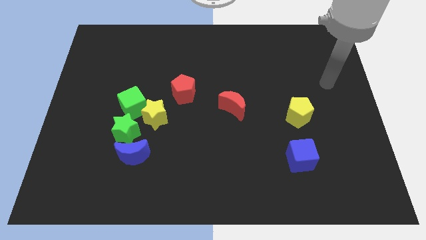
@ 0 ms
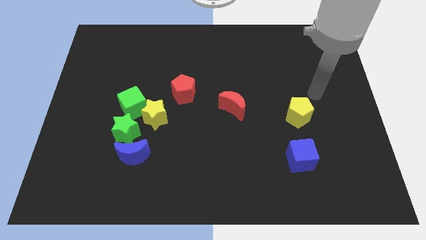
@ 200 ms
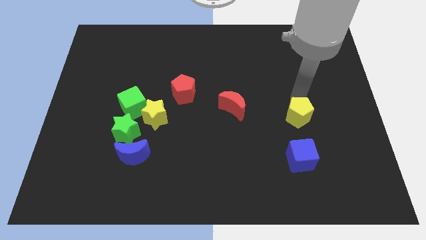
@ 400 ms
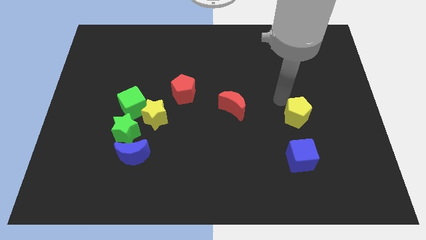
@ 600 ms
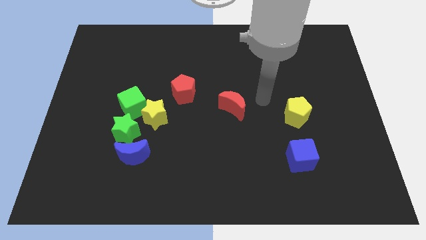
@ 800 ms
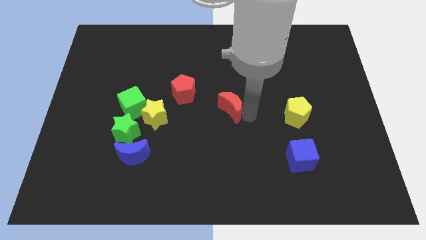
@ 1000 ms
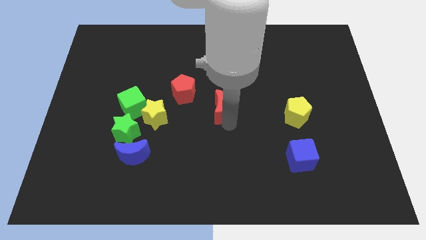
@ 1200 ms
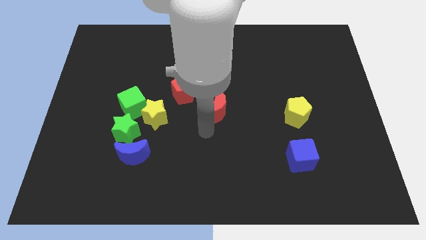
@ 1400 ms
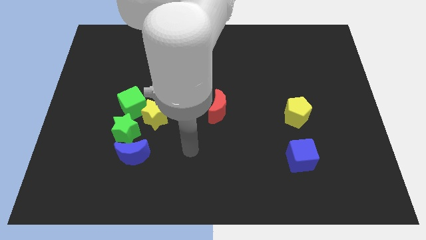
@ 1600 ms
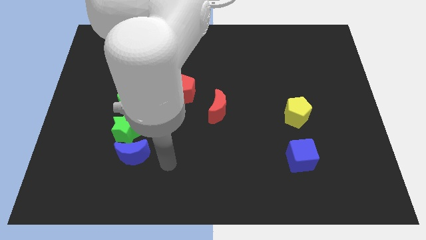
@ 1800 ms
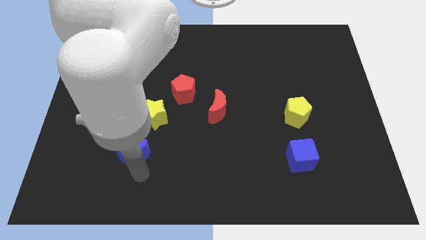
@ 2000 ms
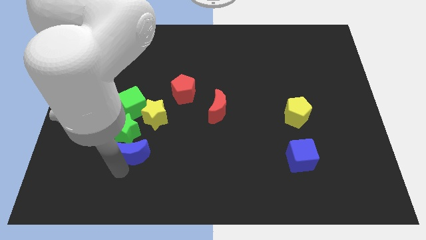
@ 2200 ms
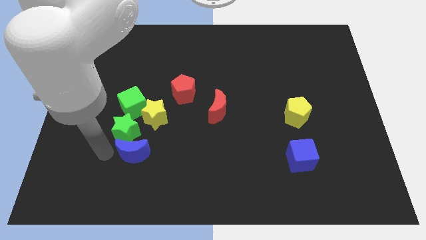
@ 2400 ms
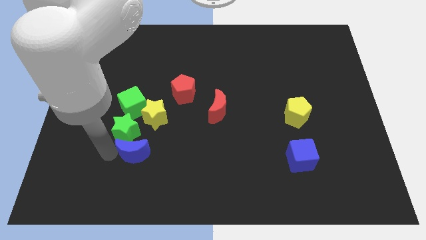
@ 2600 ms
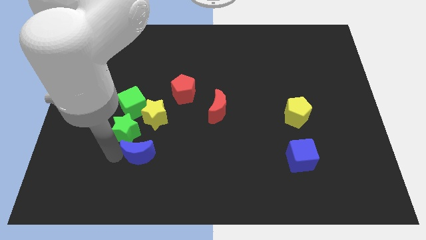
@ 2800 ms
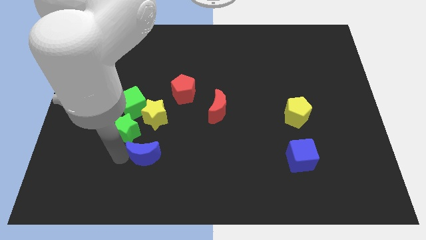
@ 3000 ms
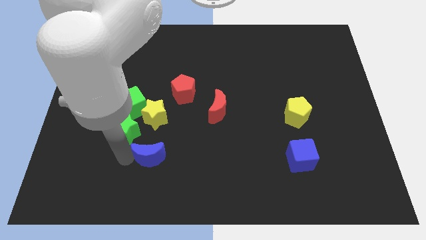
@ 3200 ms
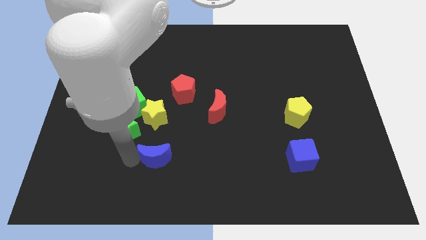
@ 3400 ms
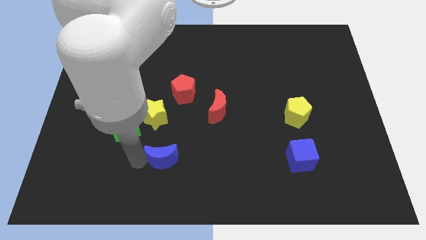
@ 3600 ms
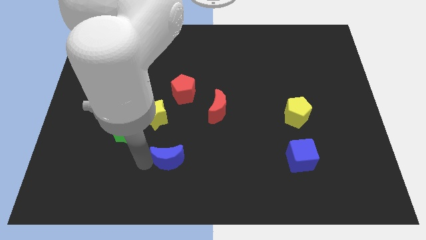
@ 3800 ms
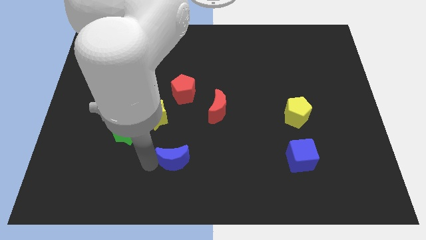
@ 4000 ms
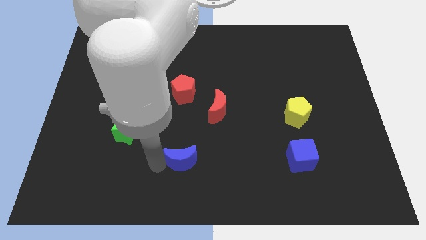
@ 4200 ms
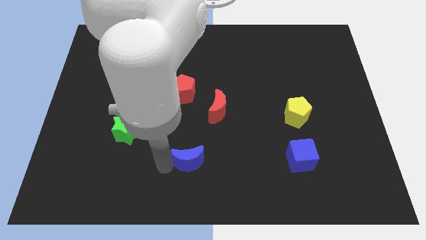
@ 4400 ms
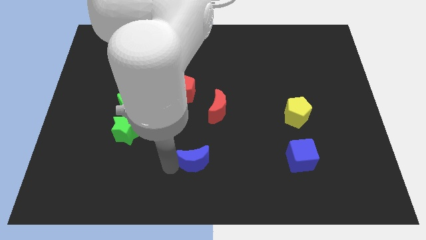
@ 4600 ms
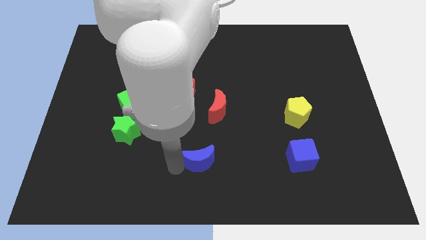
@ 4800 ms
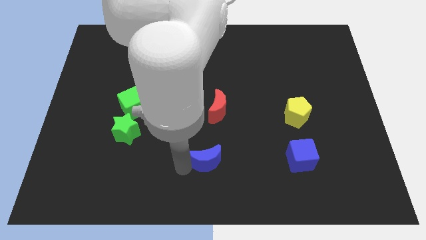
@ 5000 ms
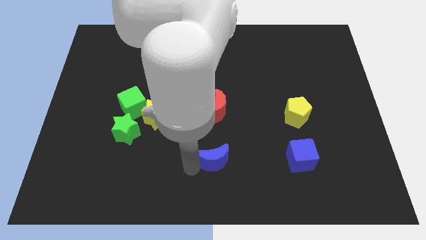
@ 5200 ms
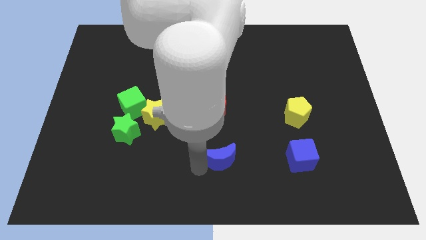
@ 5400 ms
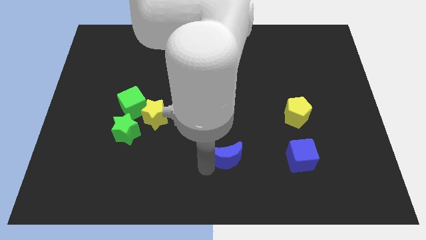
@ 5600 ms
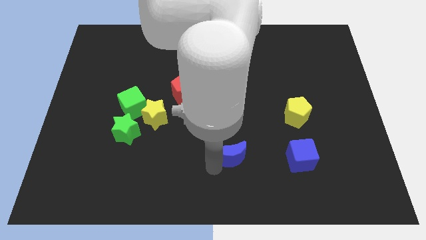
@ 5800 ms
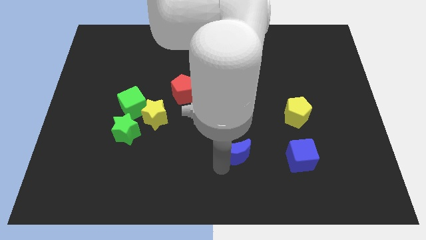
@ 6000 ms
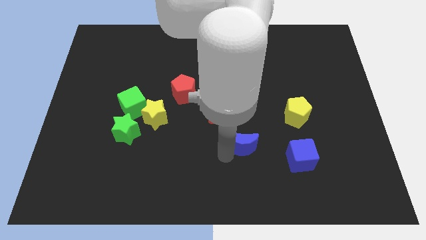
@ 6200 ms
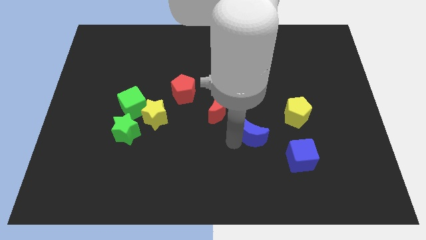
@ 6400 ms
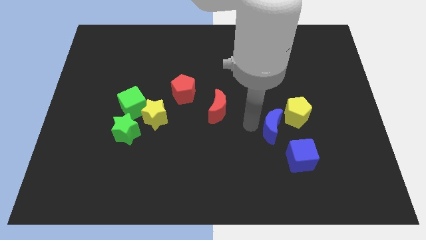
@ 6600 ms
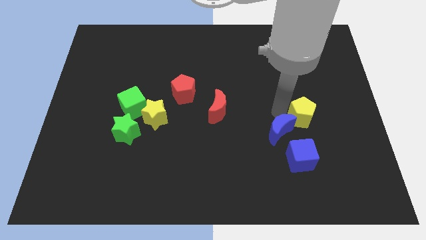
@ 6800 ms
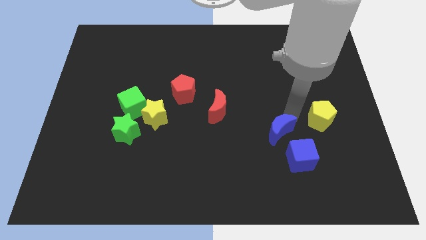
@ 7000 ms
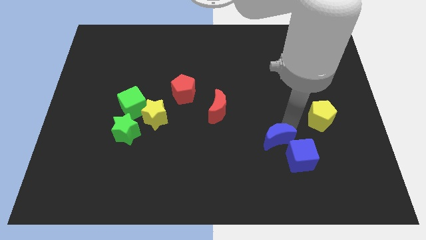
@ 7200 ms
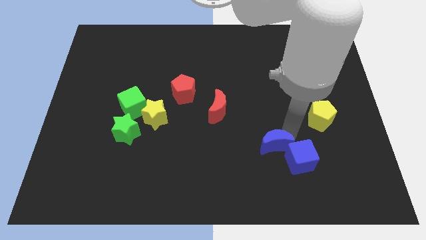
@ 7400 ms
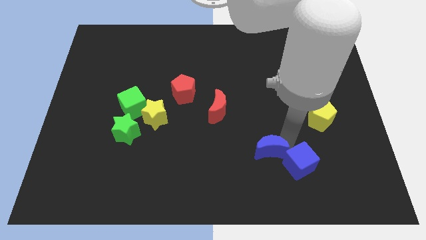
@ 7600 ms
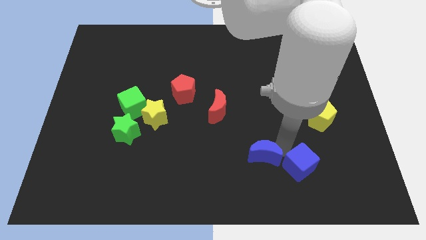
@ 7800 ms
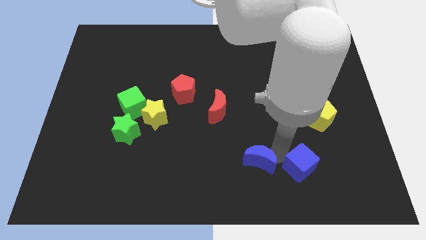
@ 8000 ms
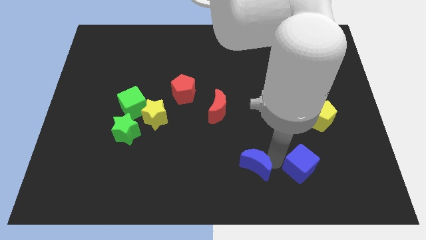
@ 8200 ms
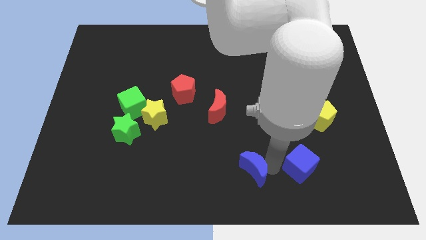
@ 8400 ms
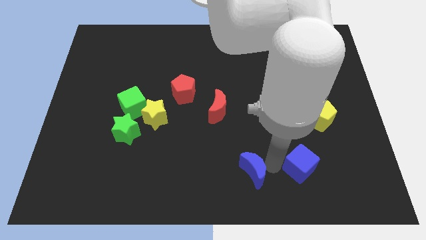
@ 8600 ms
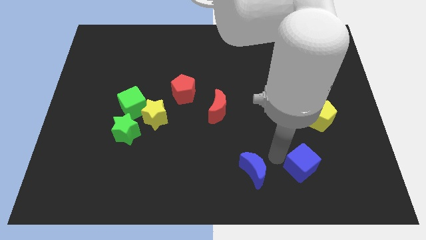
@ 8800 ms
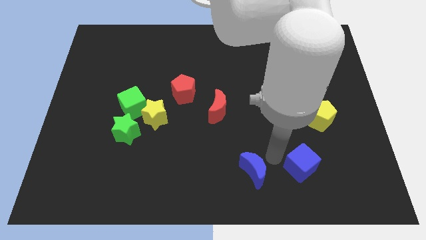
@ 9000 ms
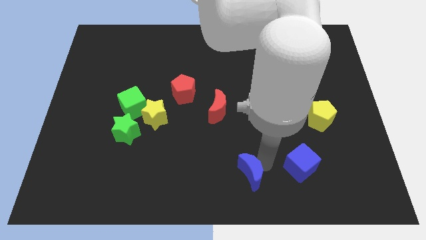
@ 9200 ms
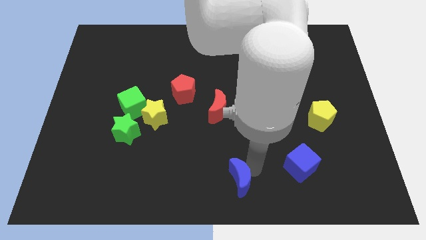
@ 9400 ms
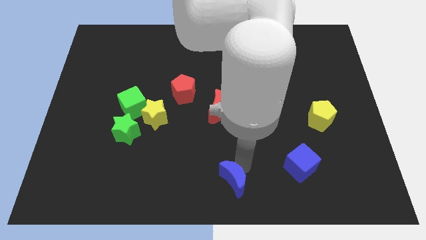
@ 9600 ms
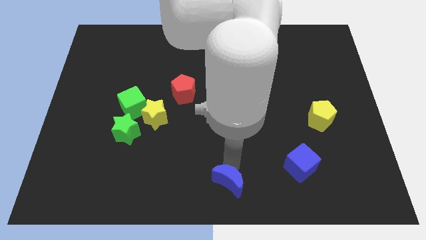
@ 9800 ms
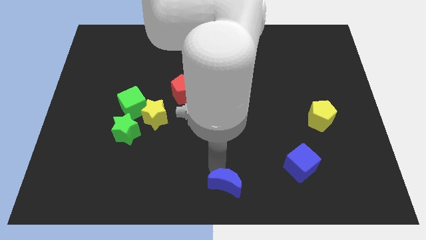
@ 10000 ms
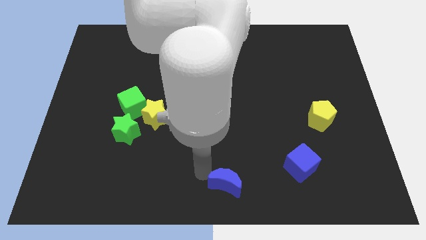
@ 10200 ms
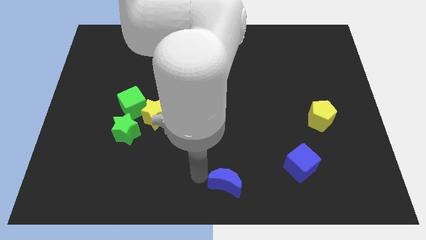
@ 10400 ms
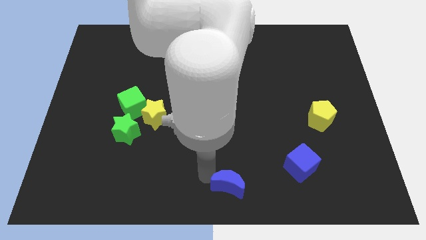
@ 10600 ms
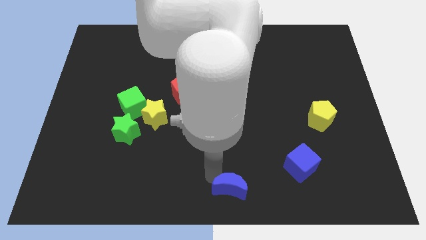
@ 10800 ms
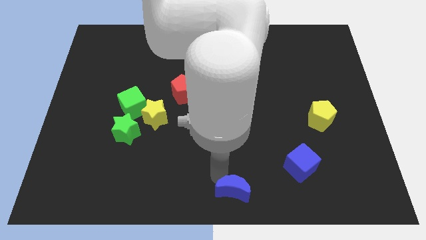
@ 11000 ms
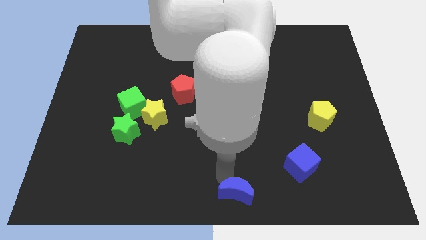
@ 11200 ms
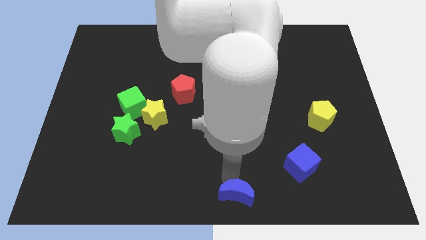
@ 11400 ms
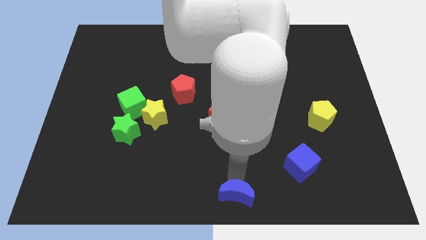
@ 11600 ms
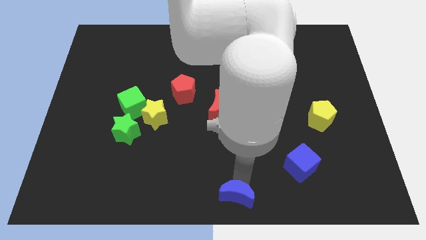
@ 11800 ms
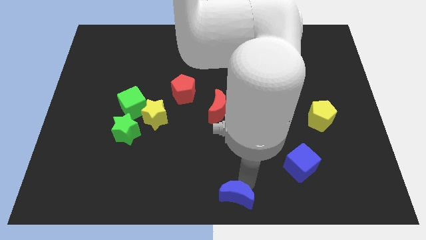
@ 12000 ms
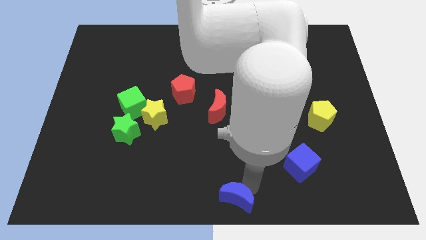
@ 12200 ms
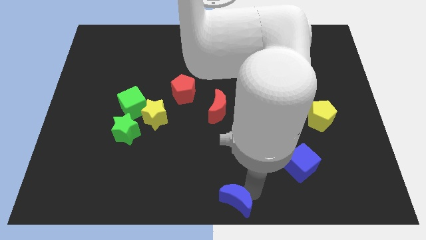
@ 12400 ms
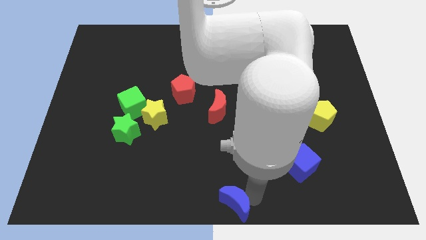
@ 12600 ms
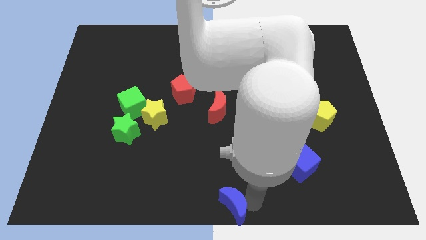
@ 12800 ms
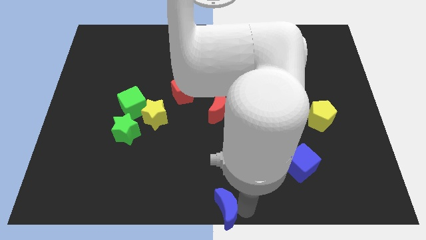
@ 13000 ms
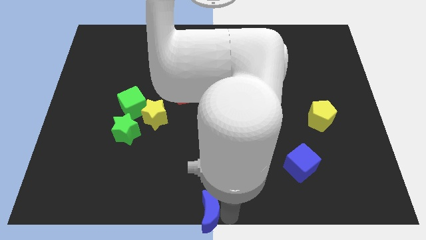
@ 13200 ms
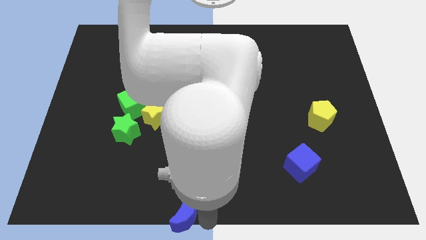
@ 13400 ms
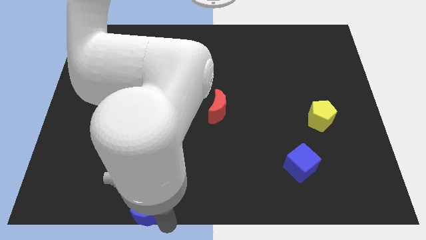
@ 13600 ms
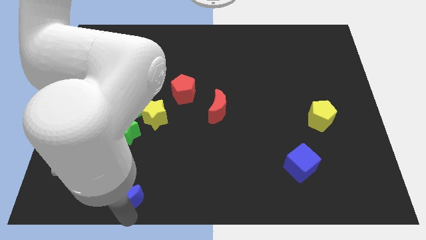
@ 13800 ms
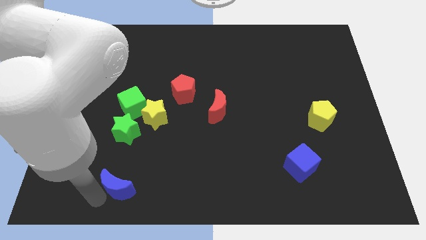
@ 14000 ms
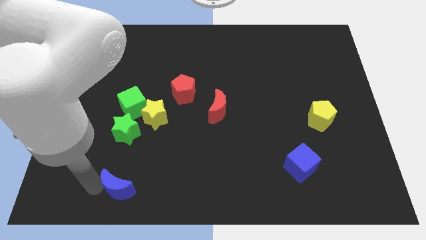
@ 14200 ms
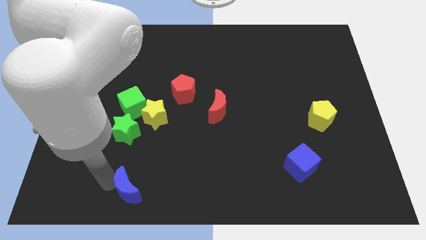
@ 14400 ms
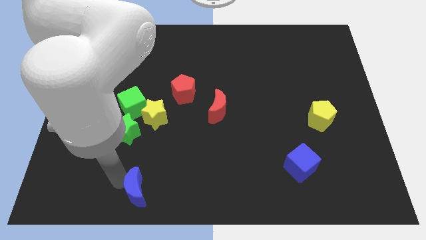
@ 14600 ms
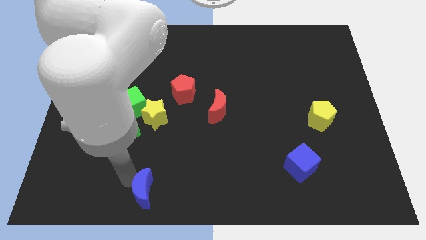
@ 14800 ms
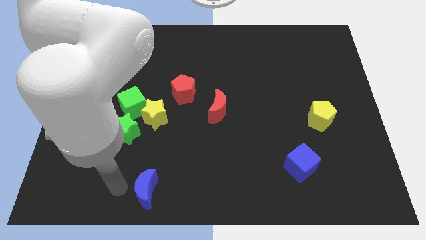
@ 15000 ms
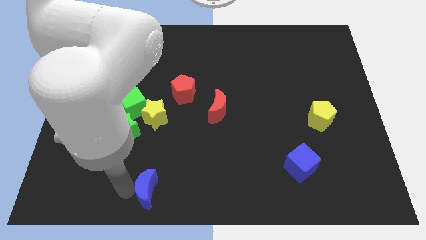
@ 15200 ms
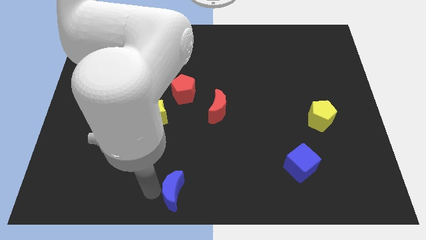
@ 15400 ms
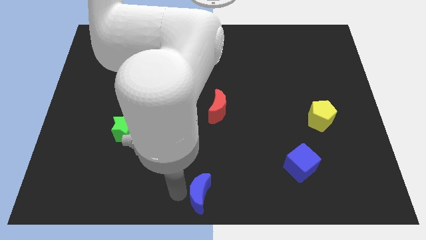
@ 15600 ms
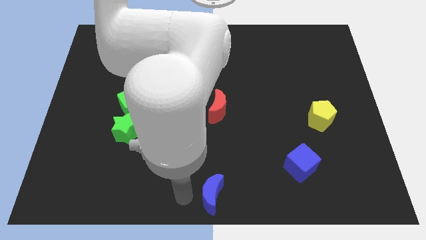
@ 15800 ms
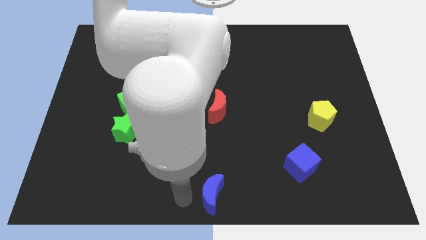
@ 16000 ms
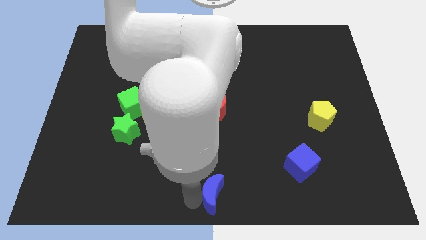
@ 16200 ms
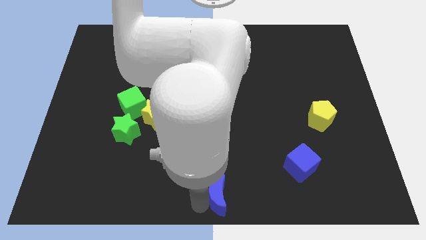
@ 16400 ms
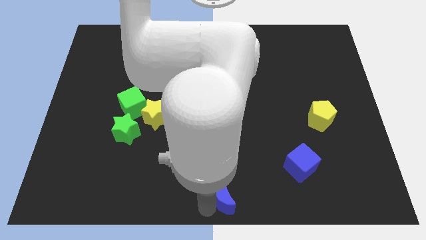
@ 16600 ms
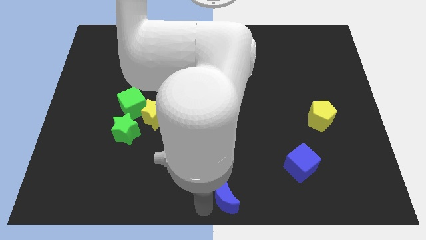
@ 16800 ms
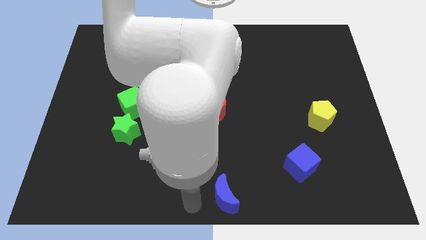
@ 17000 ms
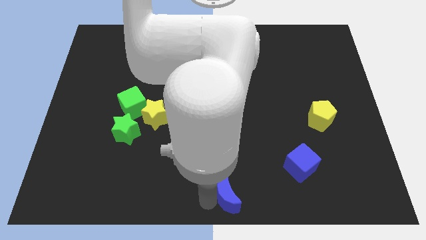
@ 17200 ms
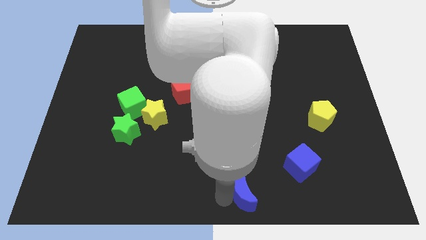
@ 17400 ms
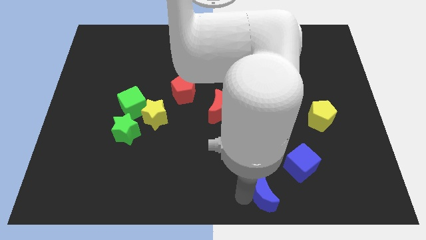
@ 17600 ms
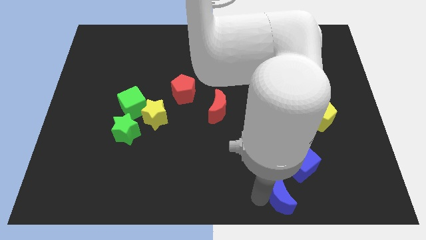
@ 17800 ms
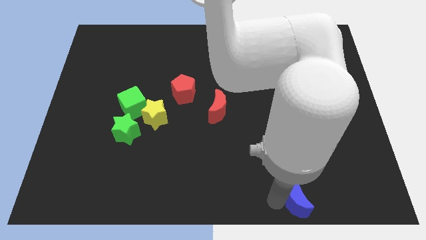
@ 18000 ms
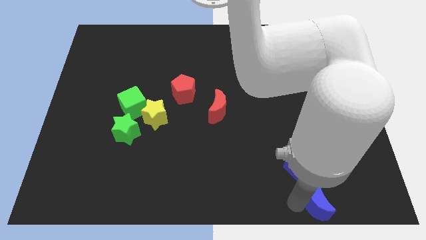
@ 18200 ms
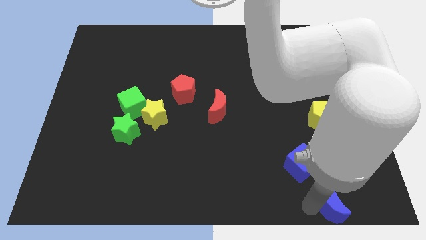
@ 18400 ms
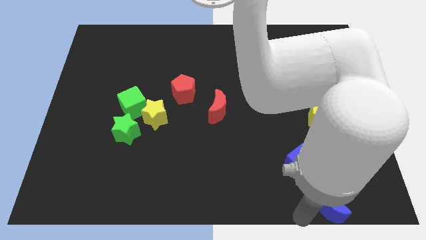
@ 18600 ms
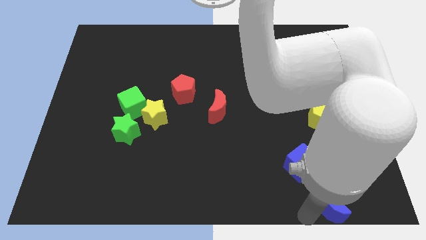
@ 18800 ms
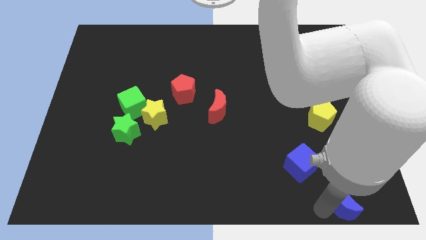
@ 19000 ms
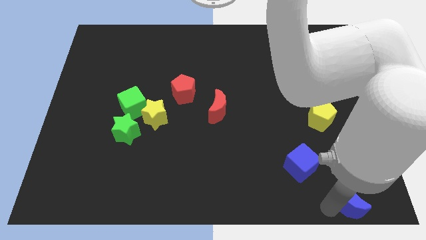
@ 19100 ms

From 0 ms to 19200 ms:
put the blue moon to the lower right corner
